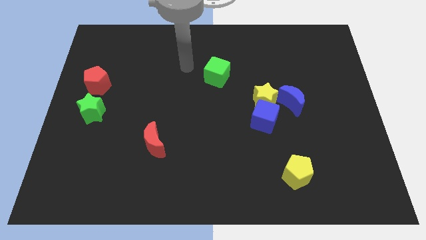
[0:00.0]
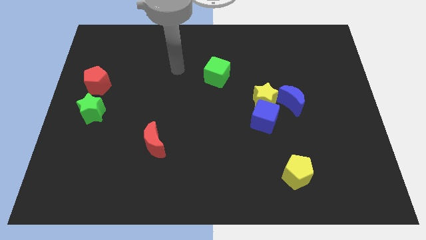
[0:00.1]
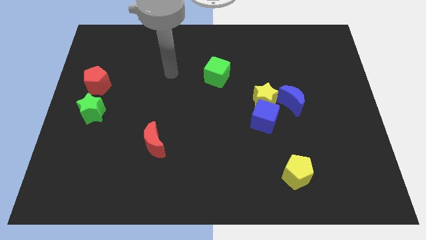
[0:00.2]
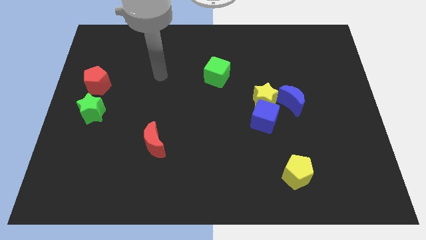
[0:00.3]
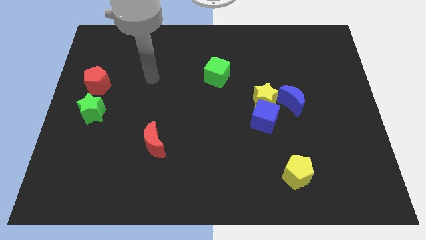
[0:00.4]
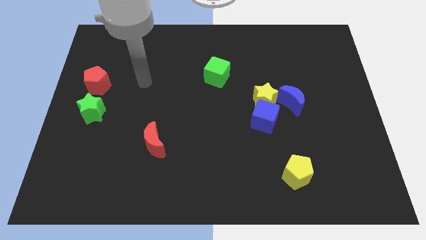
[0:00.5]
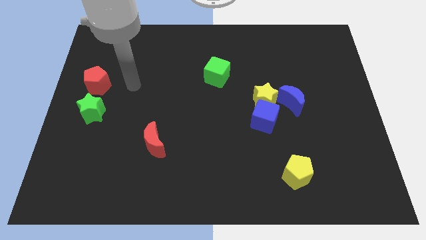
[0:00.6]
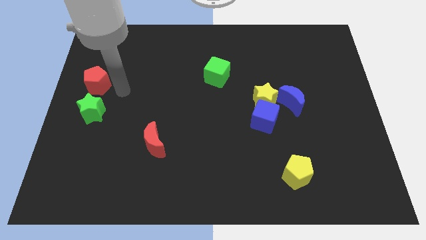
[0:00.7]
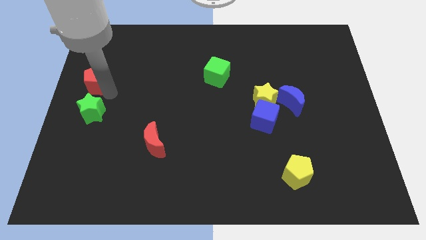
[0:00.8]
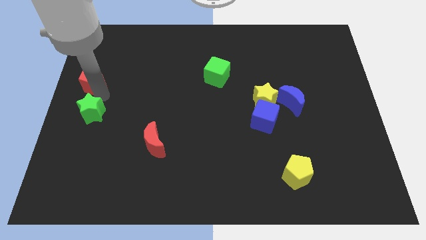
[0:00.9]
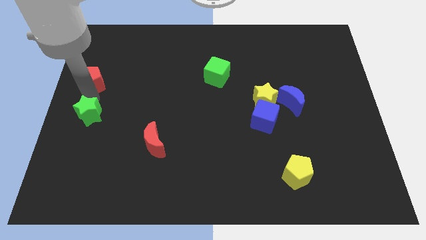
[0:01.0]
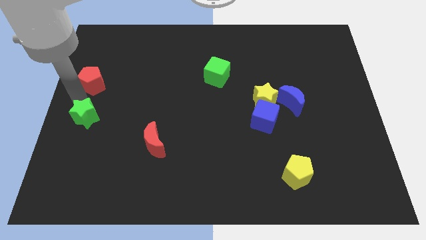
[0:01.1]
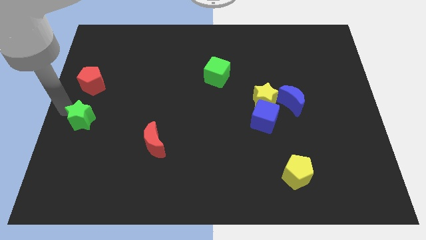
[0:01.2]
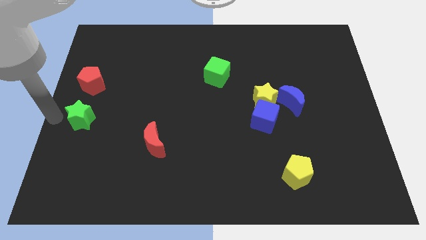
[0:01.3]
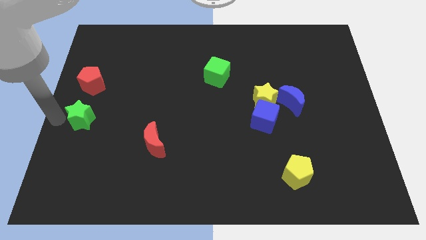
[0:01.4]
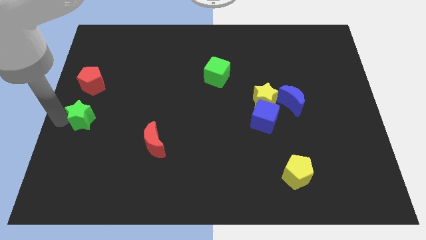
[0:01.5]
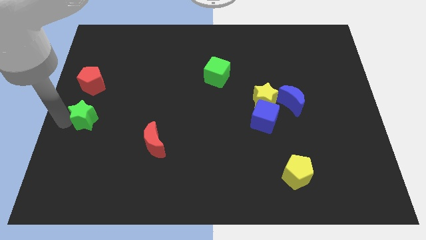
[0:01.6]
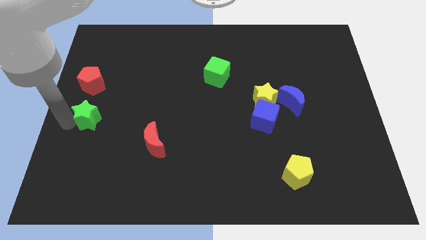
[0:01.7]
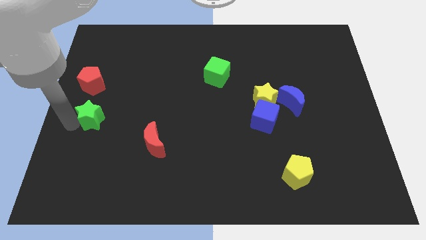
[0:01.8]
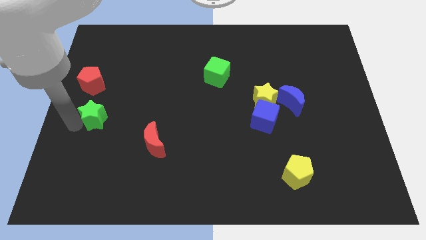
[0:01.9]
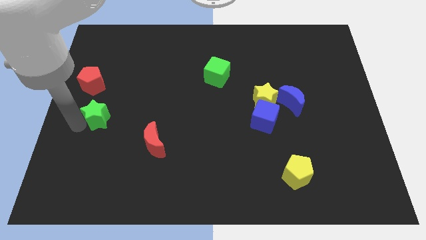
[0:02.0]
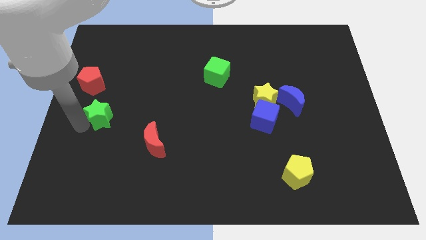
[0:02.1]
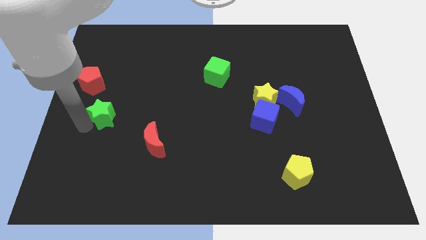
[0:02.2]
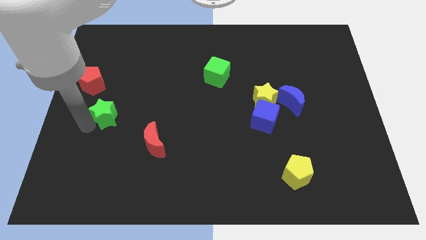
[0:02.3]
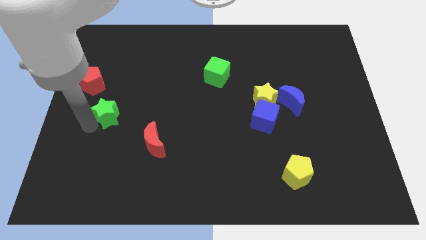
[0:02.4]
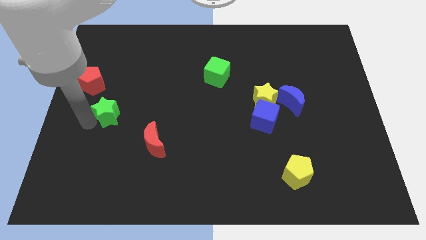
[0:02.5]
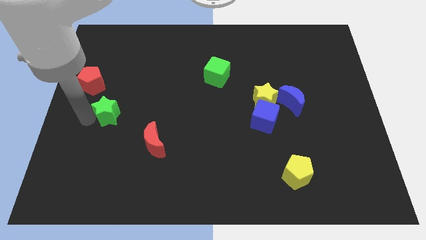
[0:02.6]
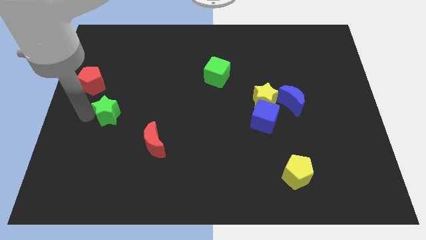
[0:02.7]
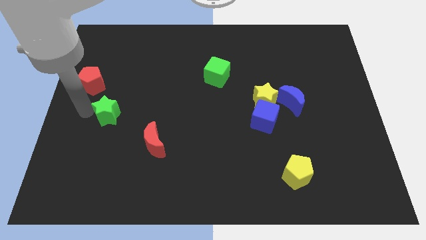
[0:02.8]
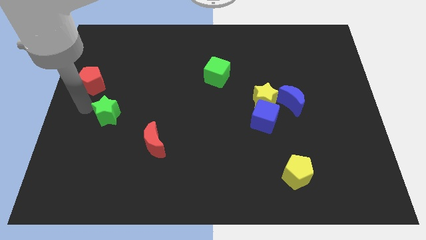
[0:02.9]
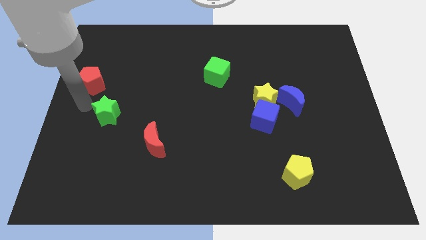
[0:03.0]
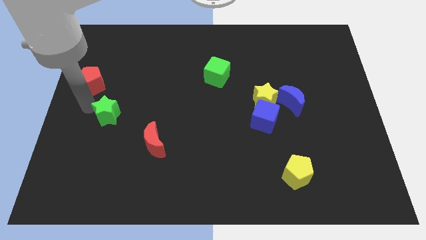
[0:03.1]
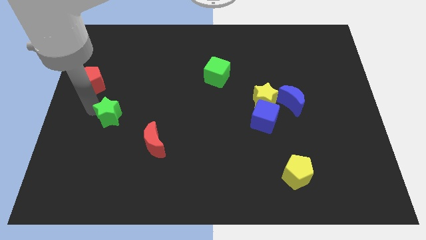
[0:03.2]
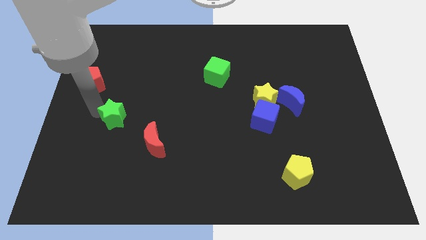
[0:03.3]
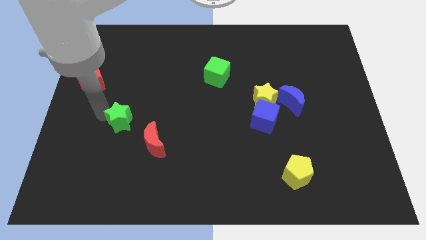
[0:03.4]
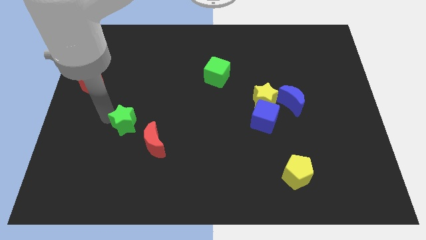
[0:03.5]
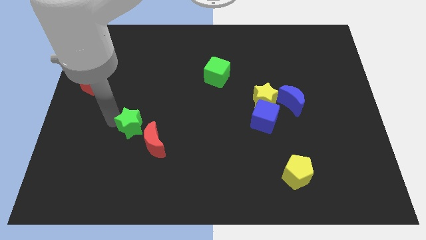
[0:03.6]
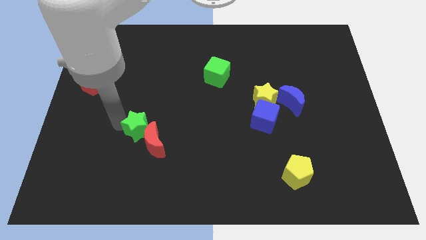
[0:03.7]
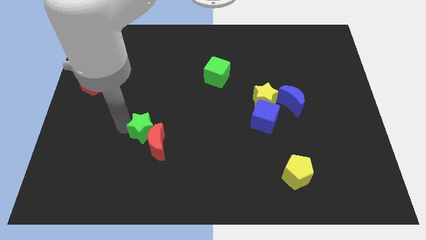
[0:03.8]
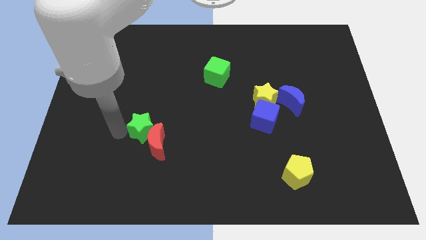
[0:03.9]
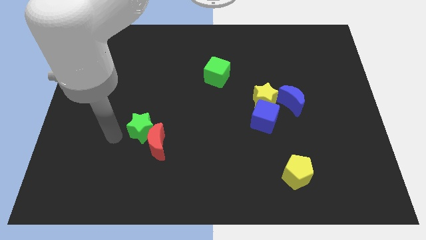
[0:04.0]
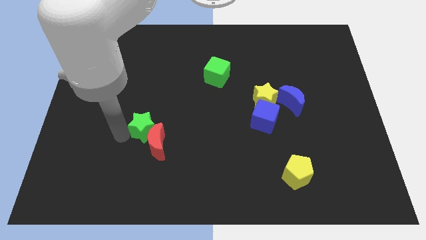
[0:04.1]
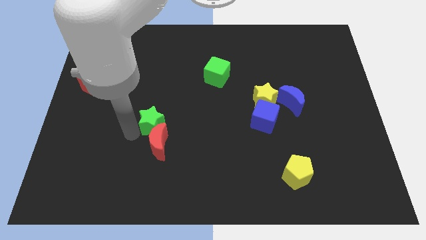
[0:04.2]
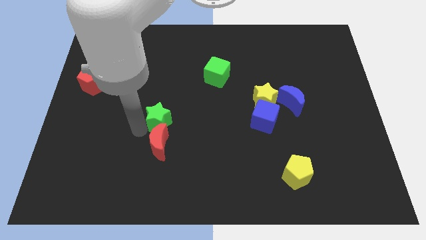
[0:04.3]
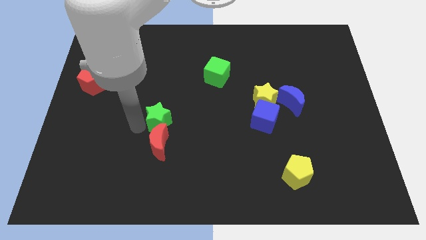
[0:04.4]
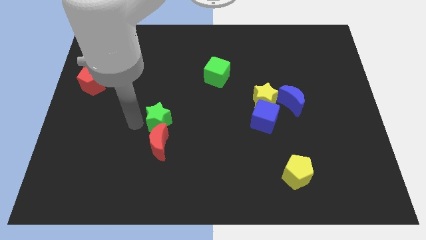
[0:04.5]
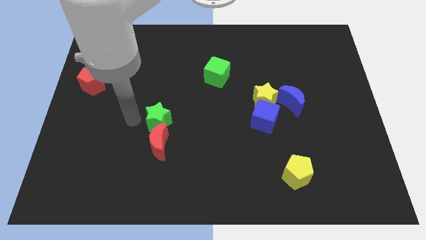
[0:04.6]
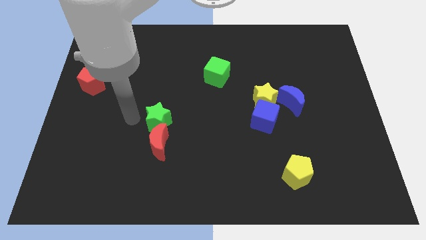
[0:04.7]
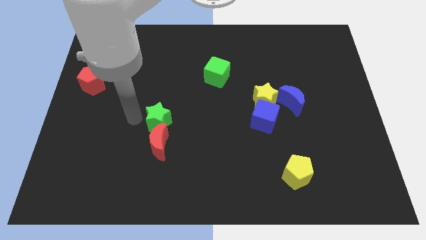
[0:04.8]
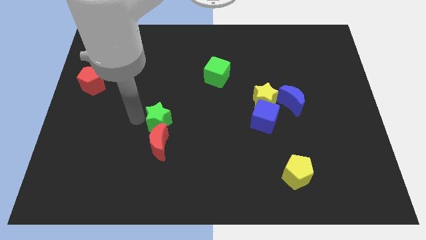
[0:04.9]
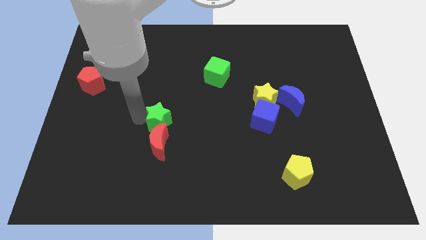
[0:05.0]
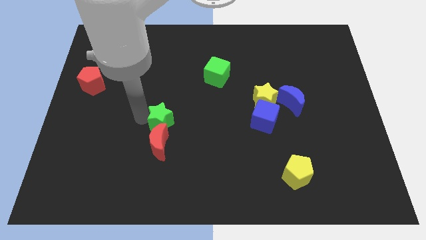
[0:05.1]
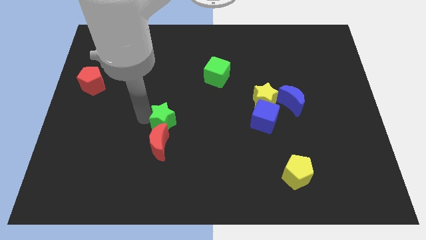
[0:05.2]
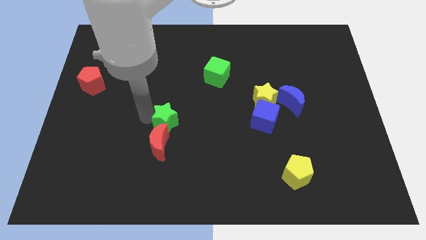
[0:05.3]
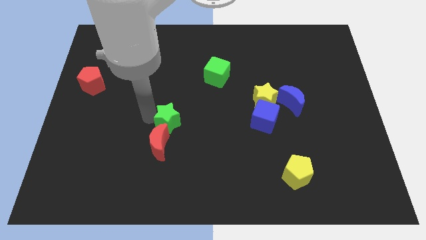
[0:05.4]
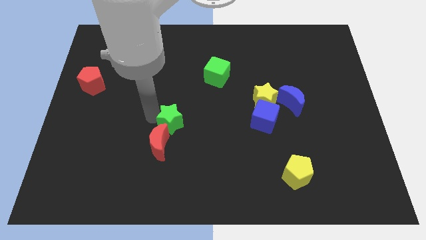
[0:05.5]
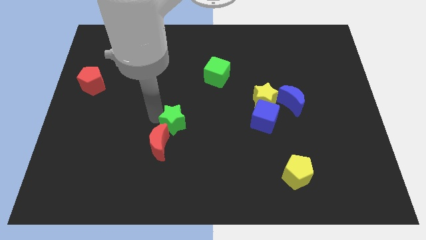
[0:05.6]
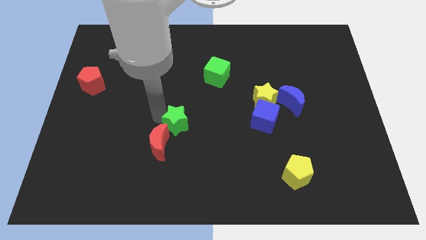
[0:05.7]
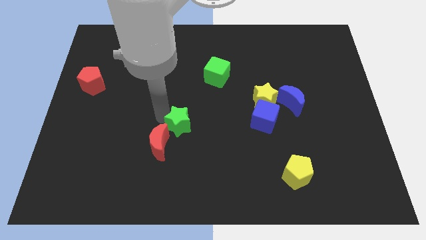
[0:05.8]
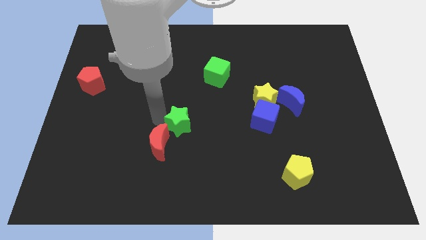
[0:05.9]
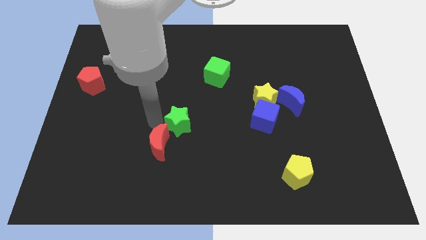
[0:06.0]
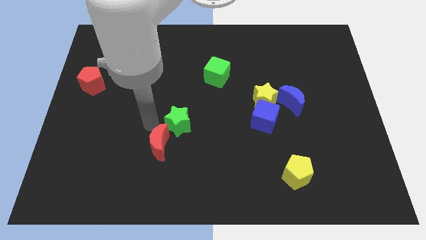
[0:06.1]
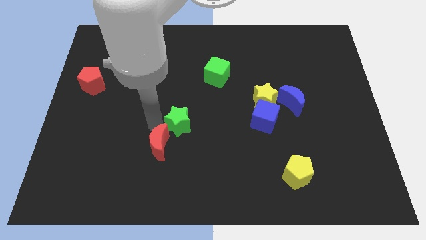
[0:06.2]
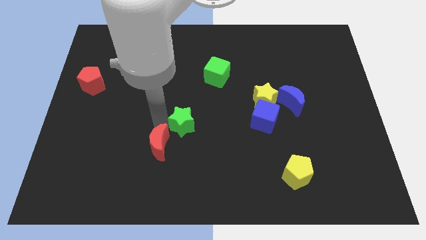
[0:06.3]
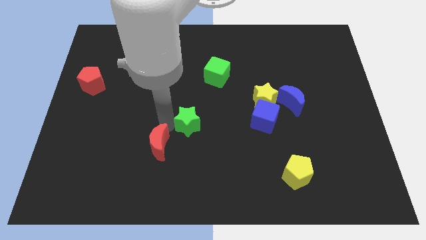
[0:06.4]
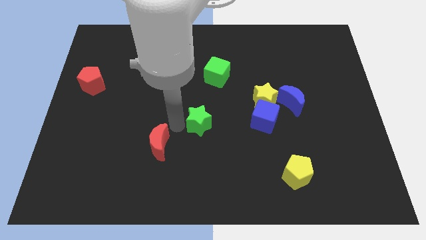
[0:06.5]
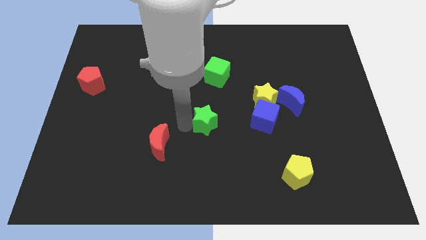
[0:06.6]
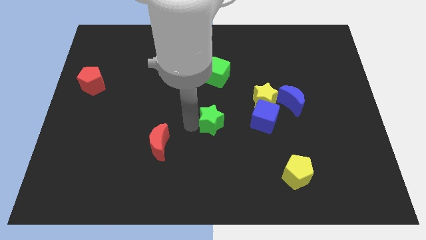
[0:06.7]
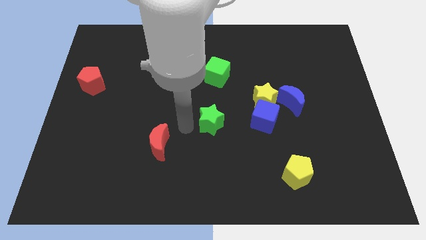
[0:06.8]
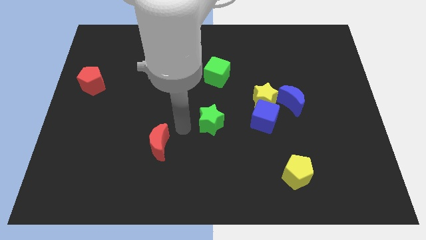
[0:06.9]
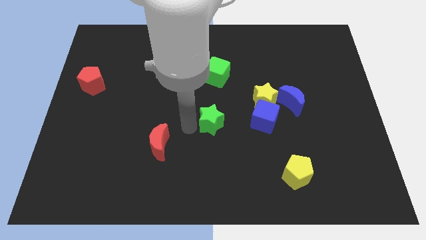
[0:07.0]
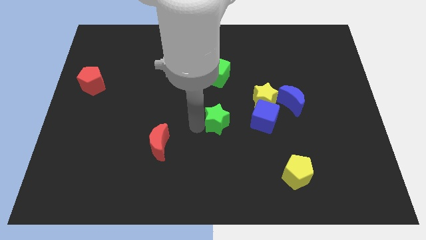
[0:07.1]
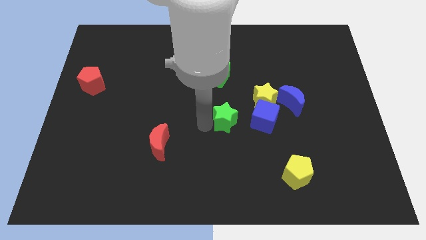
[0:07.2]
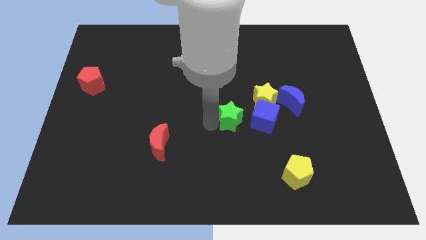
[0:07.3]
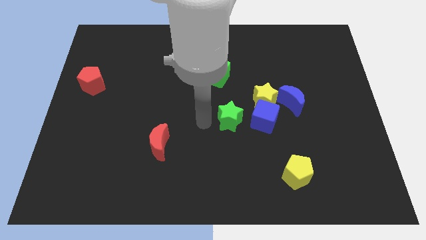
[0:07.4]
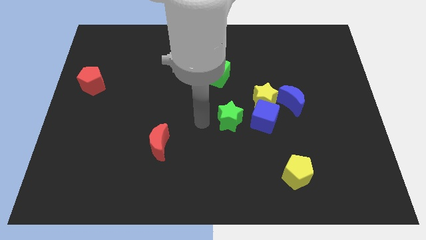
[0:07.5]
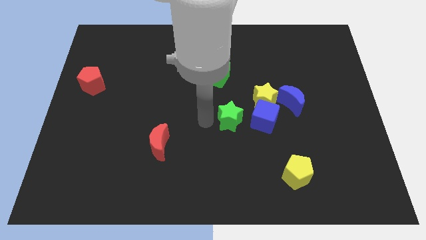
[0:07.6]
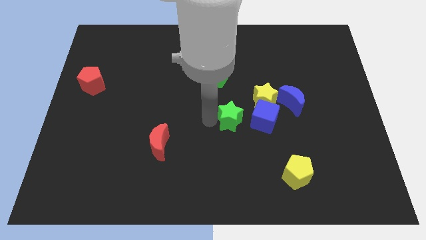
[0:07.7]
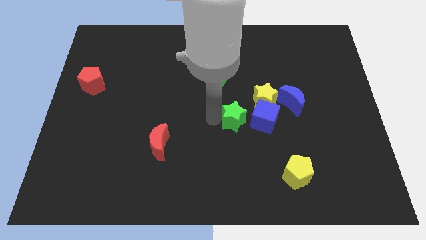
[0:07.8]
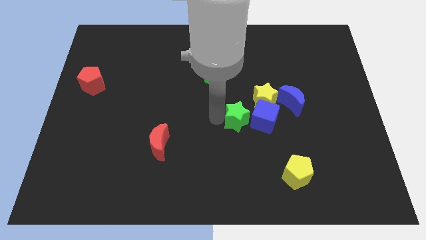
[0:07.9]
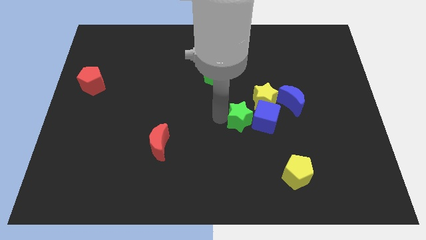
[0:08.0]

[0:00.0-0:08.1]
push the green star to the blue cube
